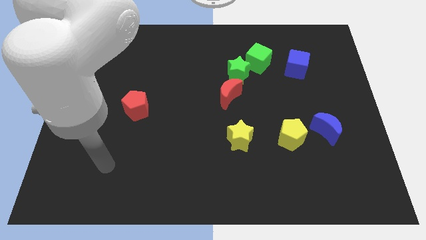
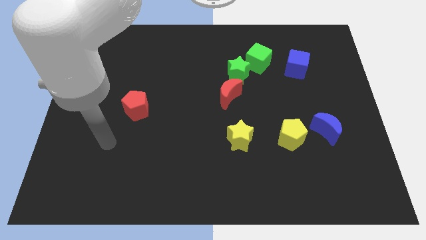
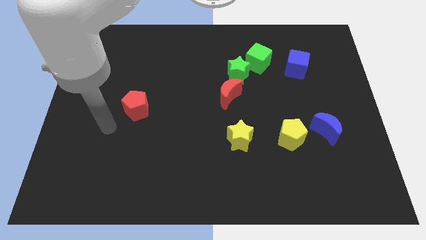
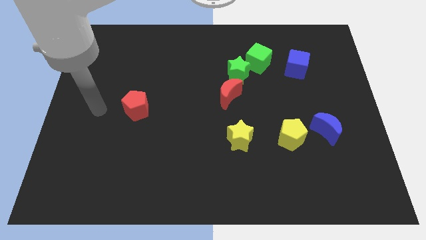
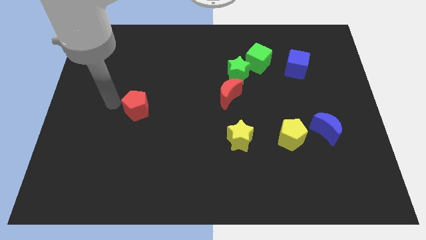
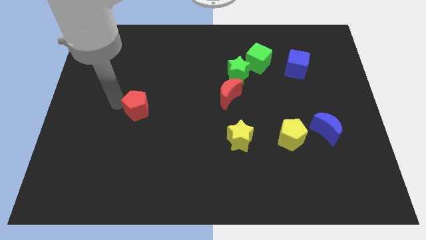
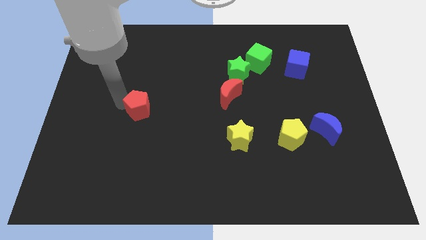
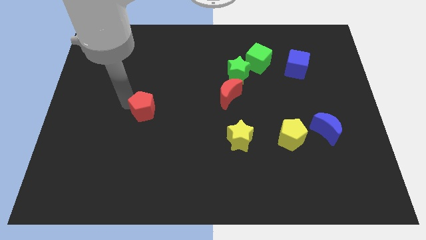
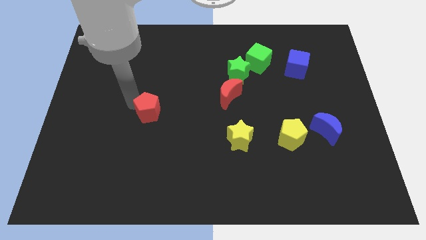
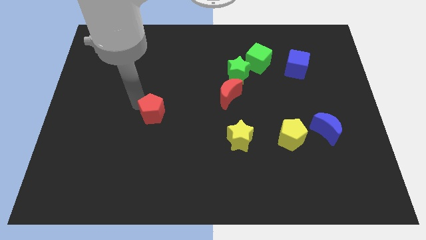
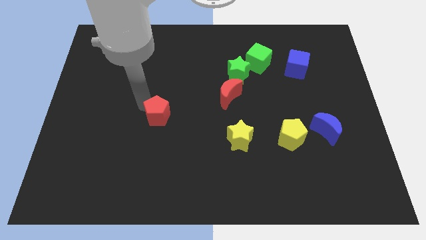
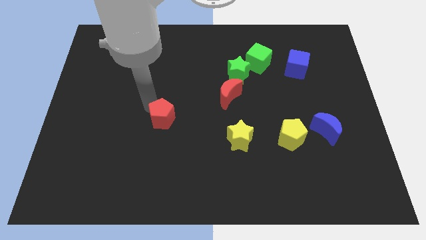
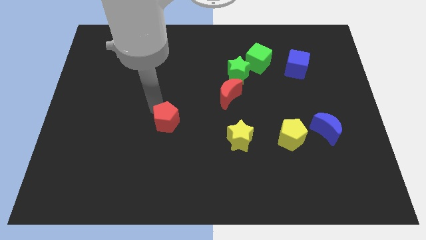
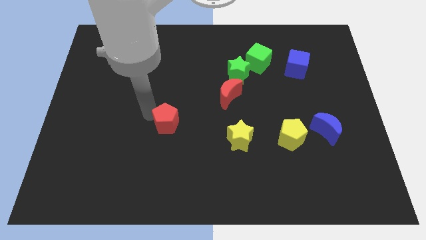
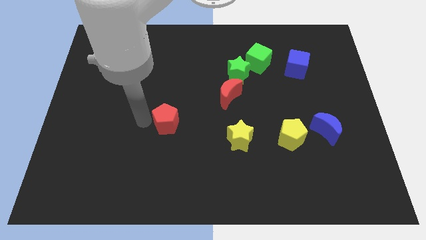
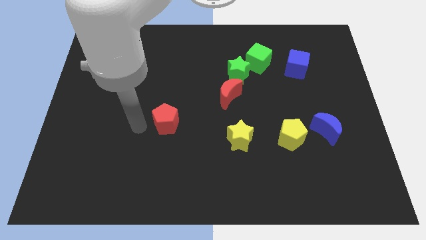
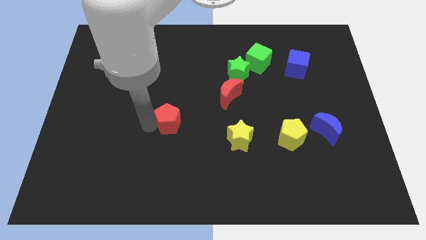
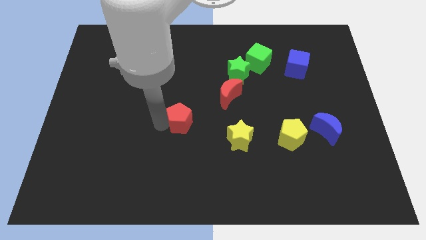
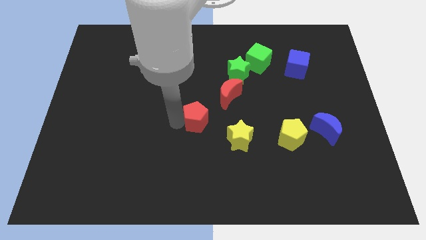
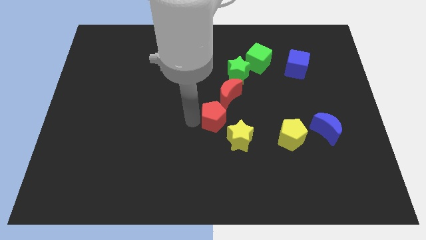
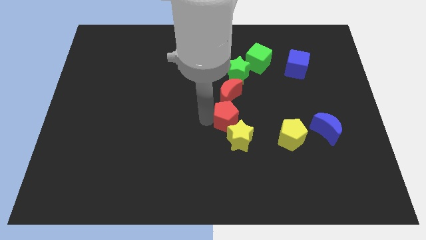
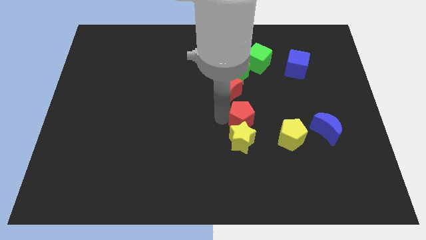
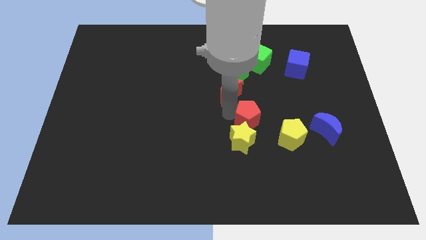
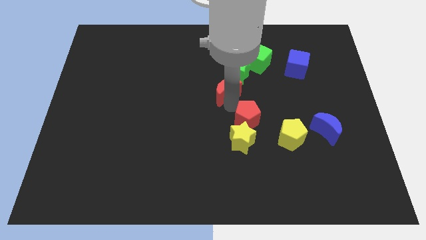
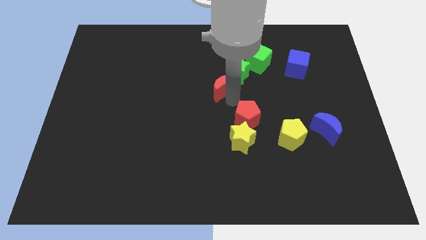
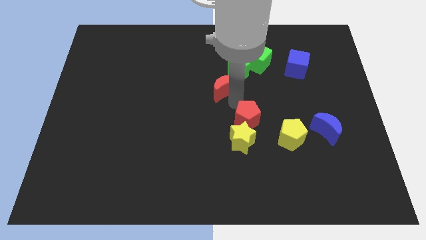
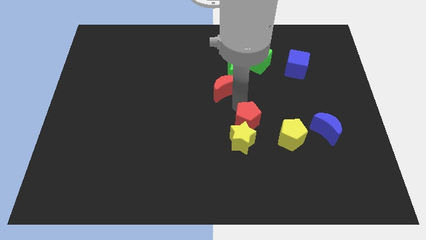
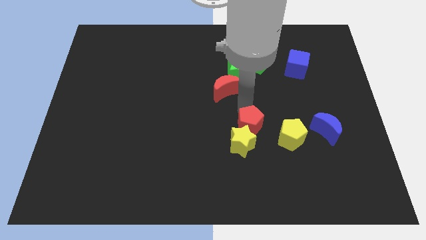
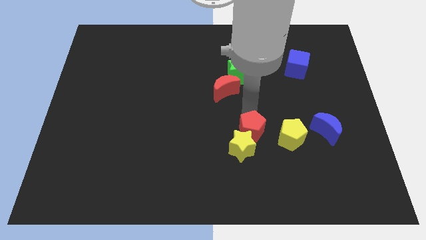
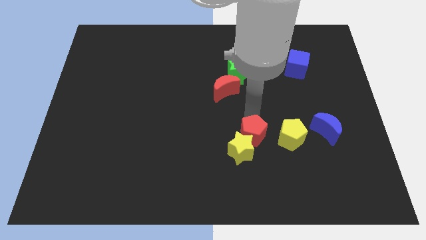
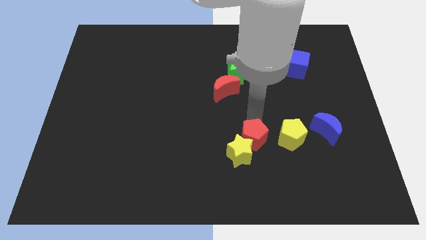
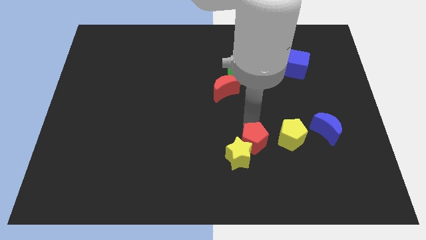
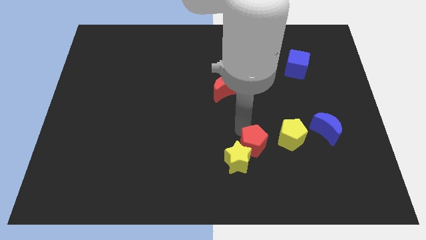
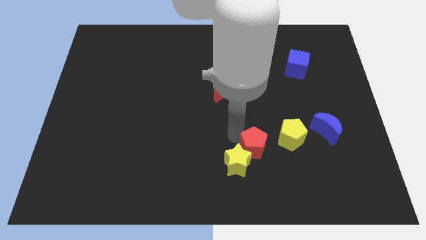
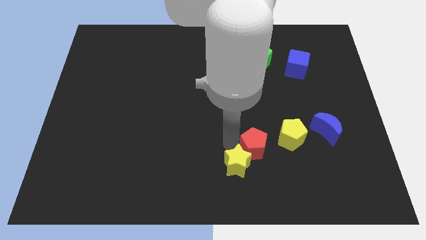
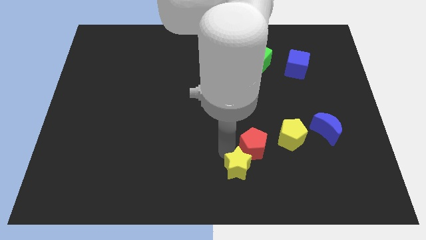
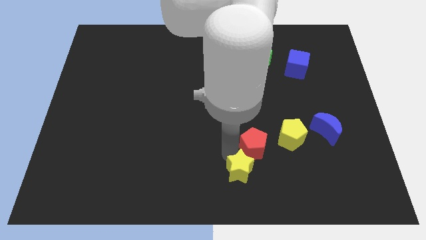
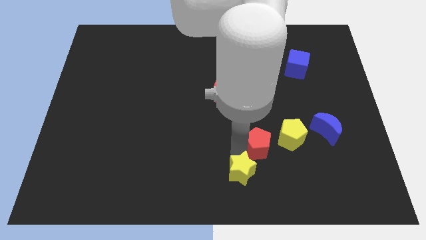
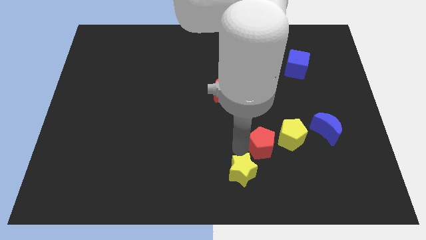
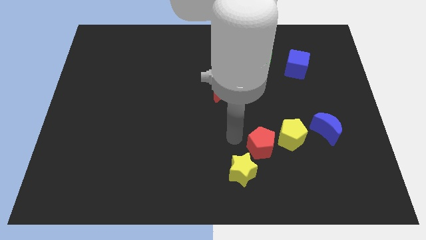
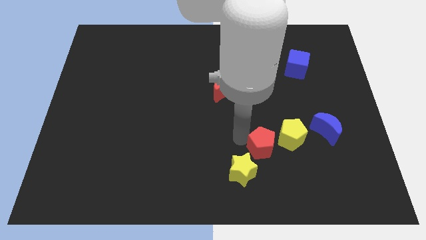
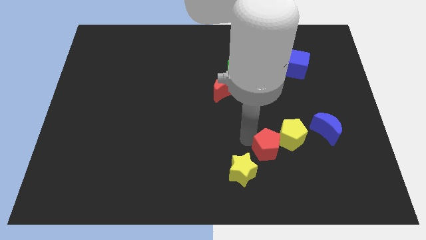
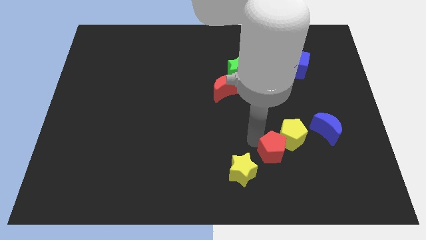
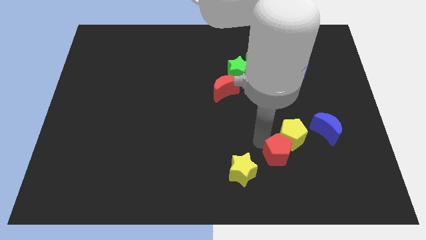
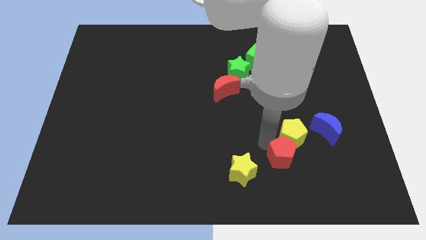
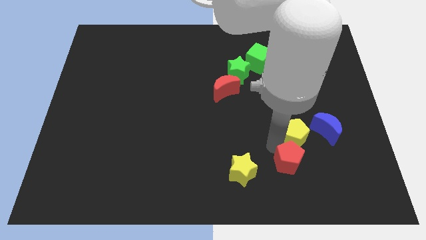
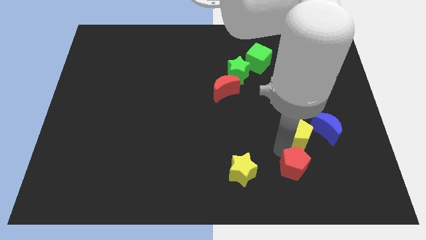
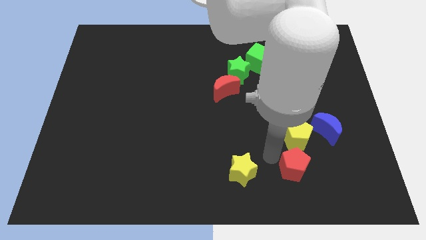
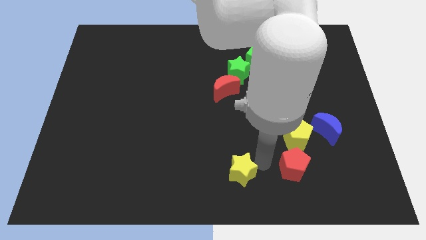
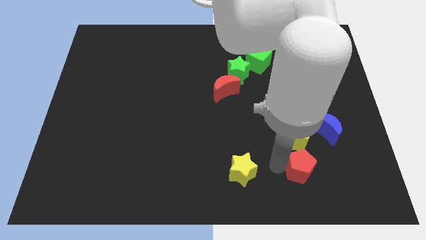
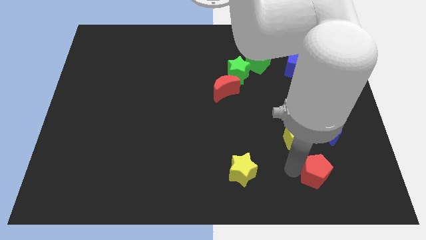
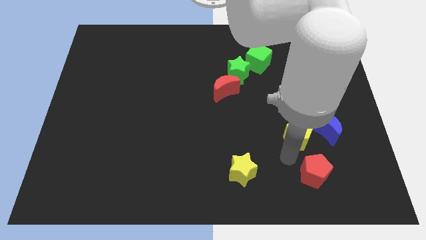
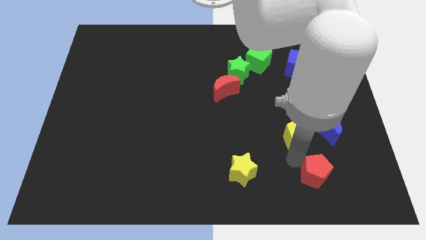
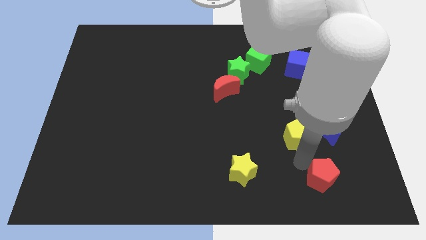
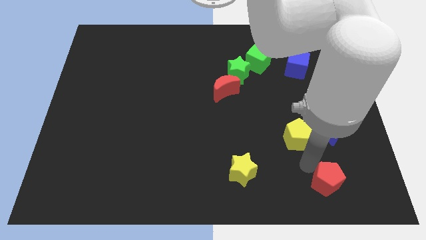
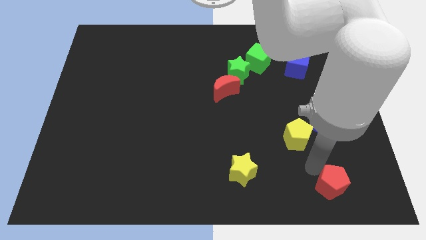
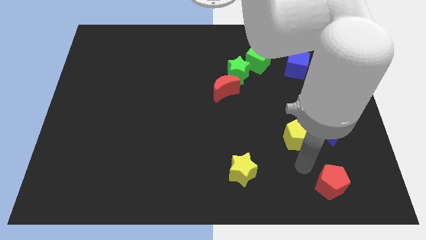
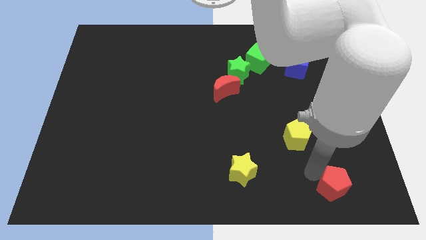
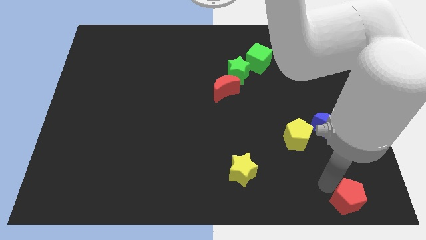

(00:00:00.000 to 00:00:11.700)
put the red pentagon to the bottom right
